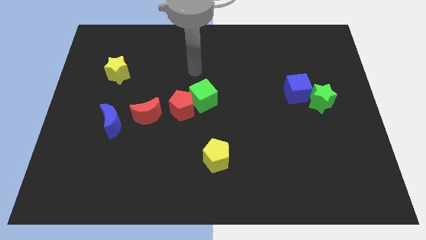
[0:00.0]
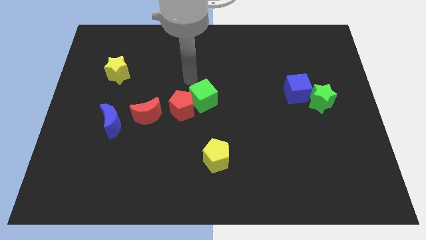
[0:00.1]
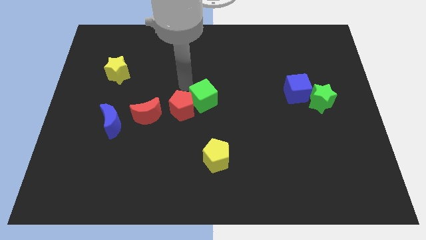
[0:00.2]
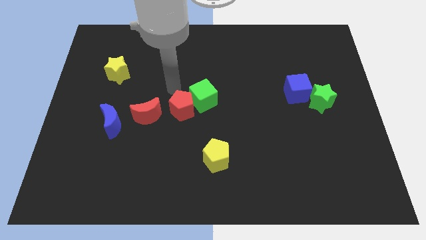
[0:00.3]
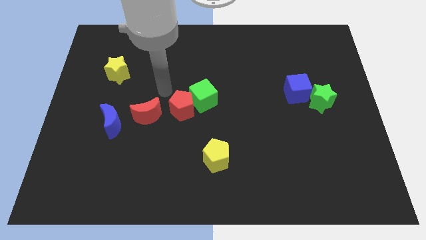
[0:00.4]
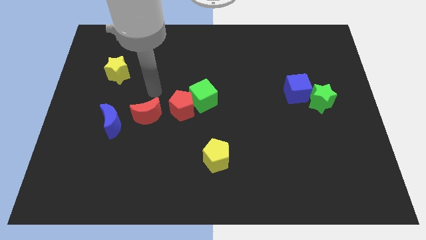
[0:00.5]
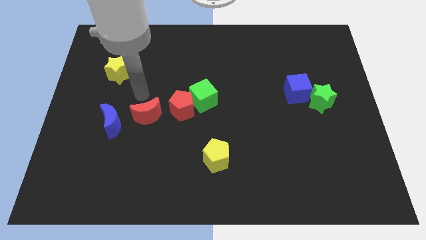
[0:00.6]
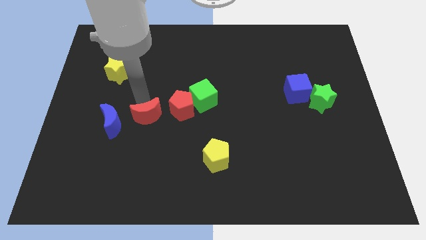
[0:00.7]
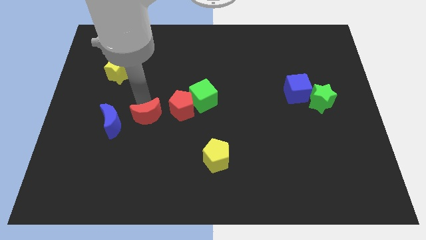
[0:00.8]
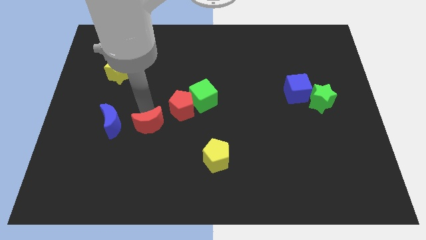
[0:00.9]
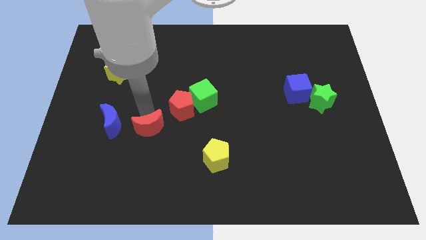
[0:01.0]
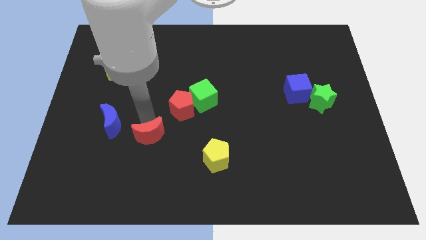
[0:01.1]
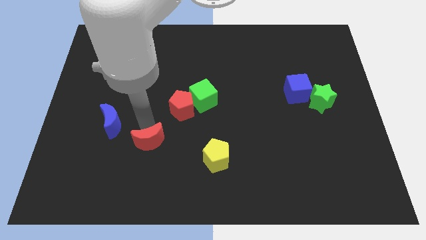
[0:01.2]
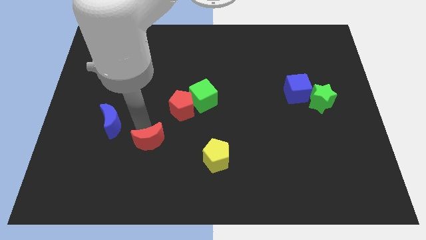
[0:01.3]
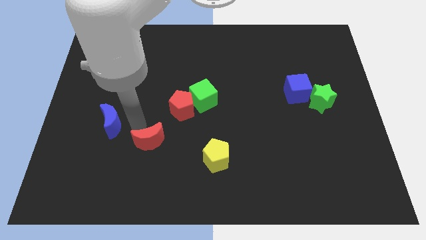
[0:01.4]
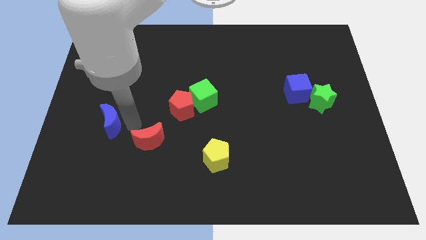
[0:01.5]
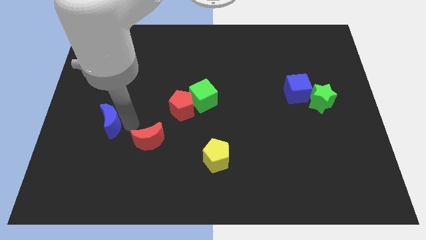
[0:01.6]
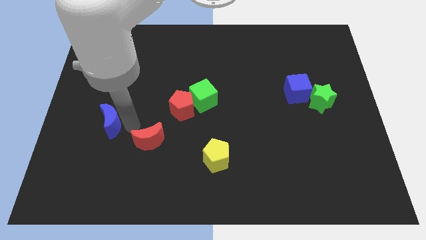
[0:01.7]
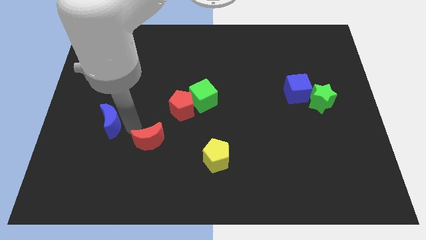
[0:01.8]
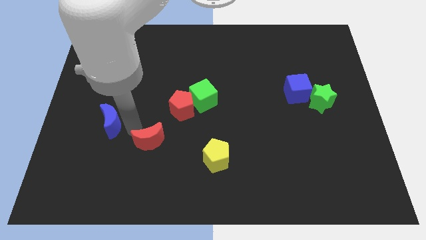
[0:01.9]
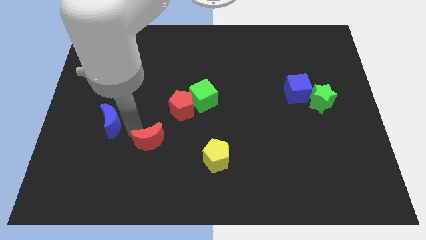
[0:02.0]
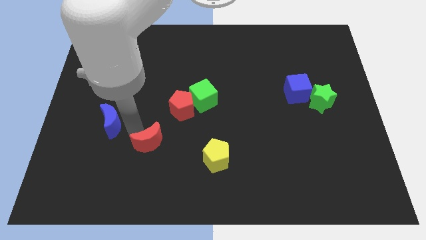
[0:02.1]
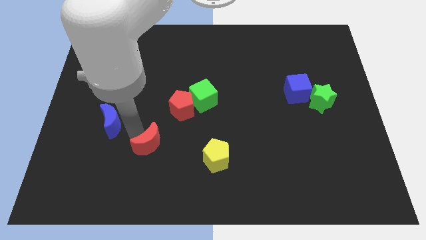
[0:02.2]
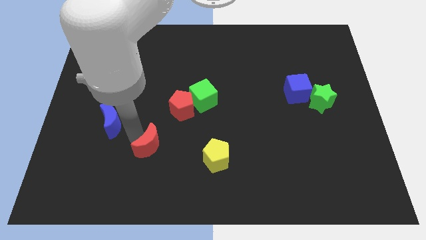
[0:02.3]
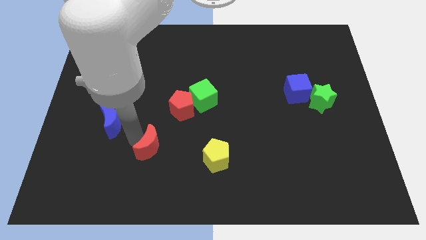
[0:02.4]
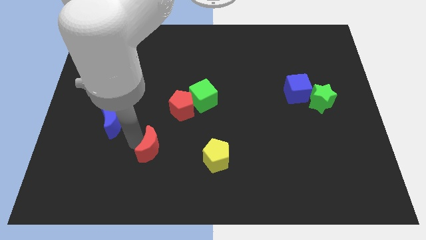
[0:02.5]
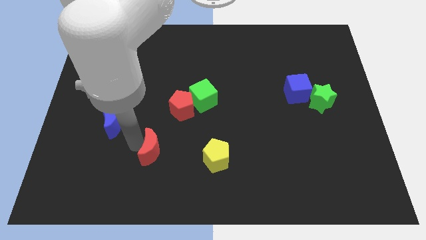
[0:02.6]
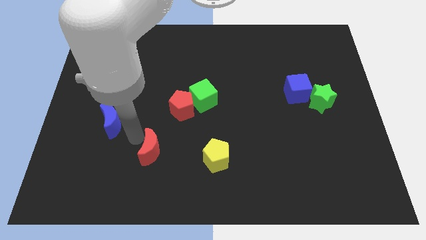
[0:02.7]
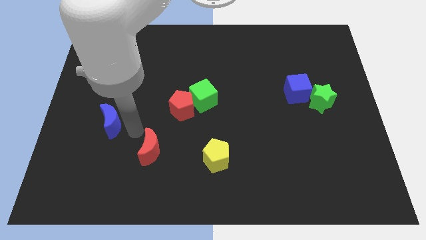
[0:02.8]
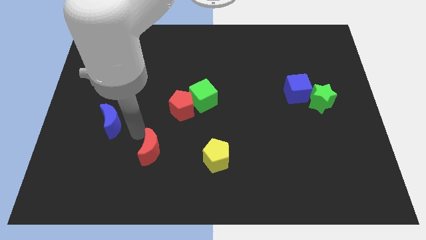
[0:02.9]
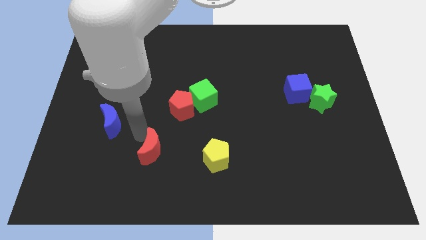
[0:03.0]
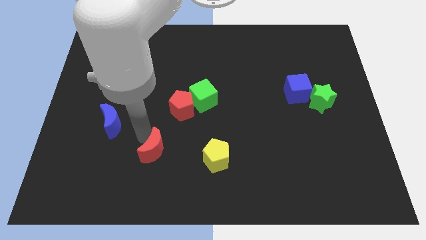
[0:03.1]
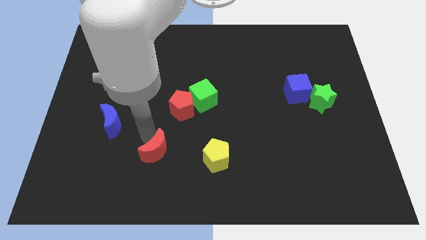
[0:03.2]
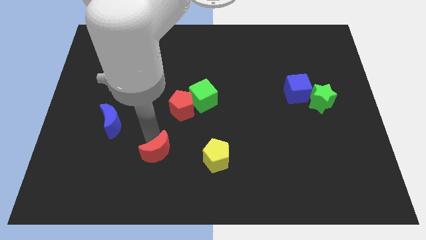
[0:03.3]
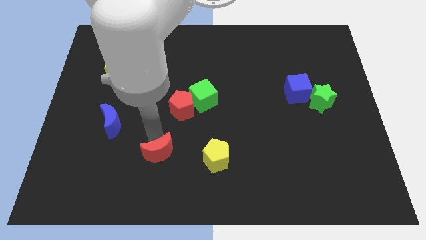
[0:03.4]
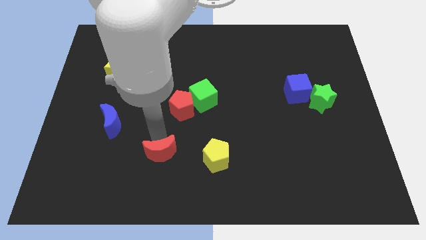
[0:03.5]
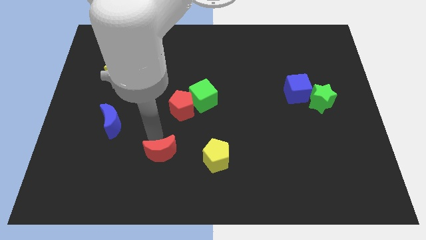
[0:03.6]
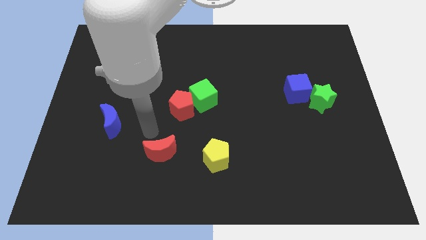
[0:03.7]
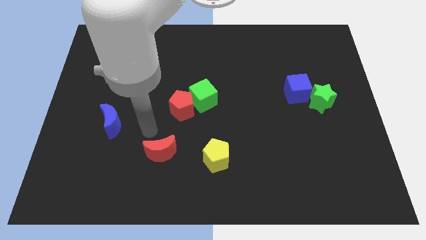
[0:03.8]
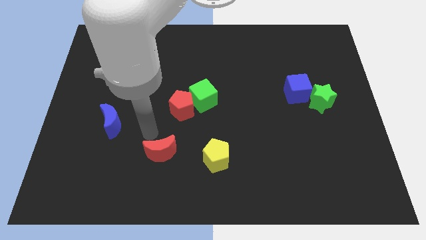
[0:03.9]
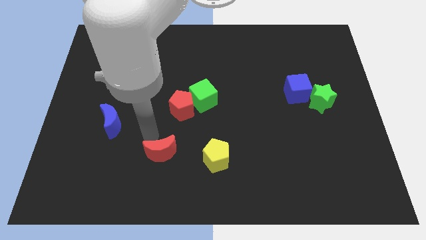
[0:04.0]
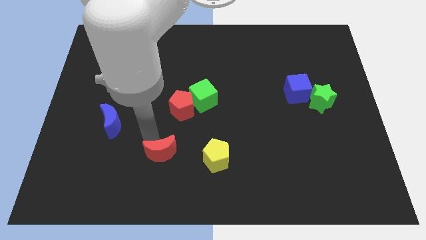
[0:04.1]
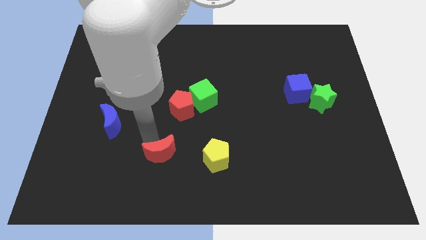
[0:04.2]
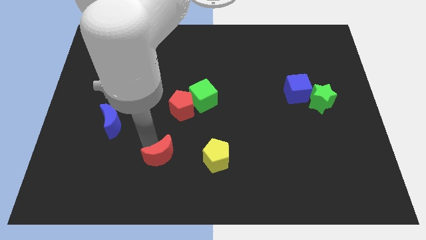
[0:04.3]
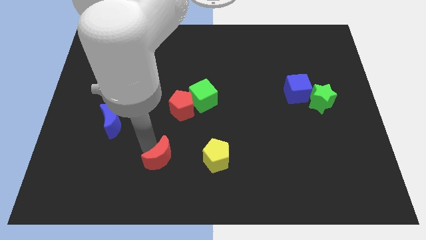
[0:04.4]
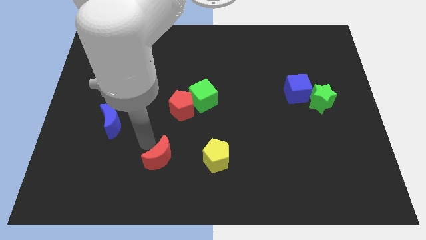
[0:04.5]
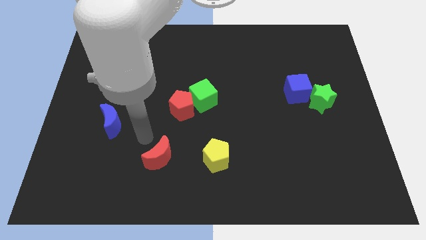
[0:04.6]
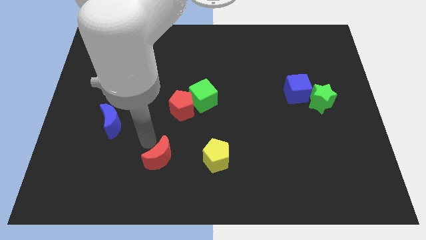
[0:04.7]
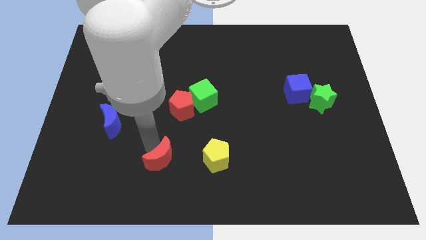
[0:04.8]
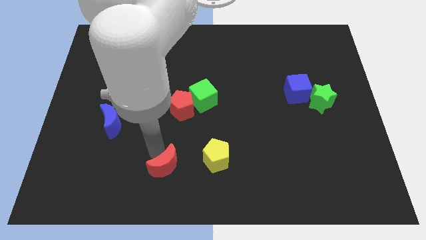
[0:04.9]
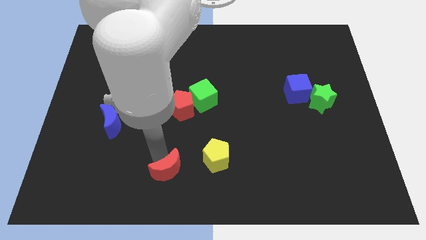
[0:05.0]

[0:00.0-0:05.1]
slide the red moon to the bottom side

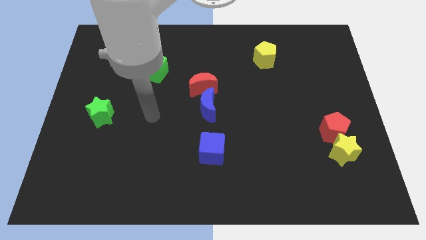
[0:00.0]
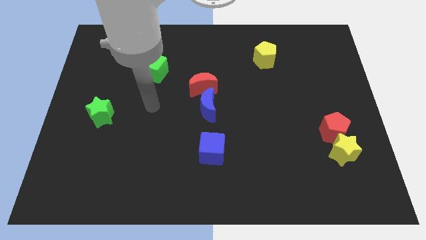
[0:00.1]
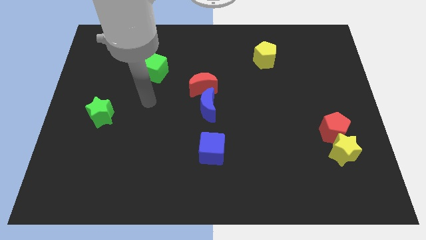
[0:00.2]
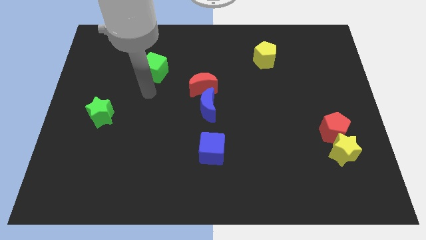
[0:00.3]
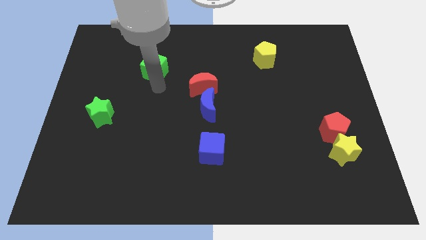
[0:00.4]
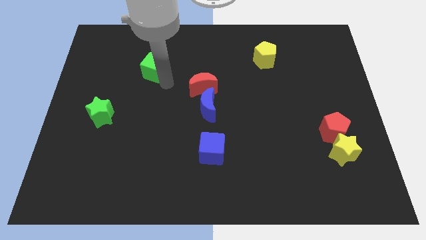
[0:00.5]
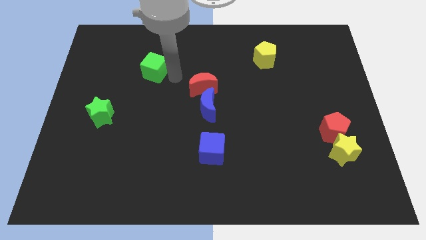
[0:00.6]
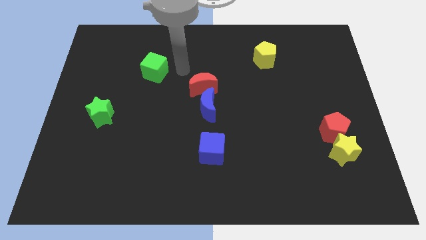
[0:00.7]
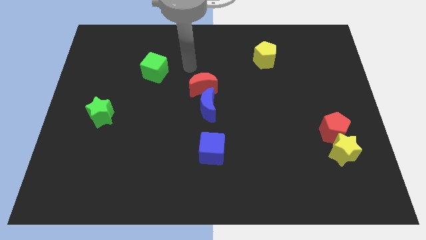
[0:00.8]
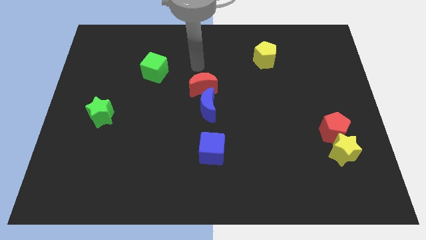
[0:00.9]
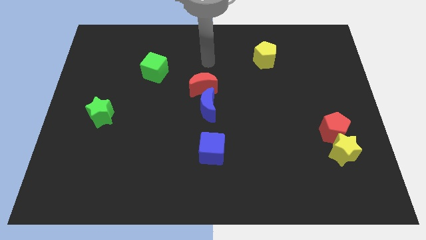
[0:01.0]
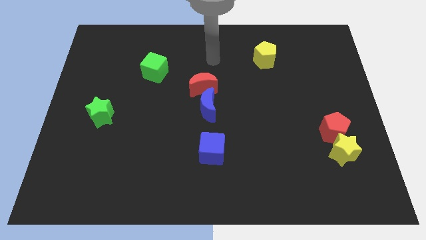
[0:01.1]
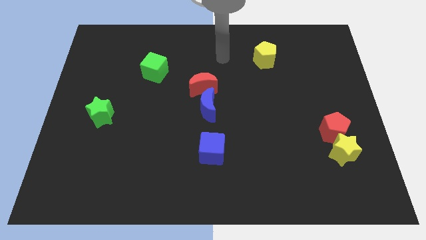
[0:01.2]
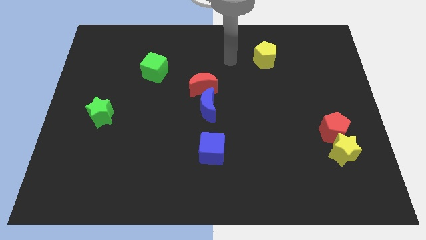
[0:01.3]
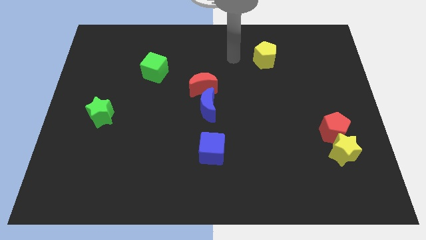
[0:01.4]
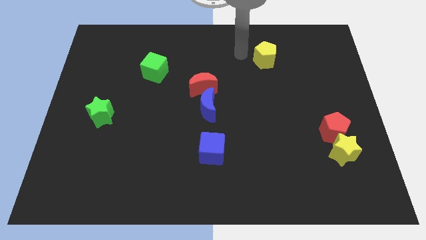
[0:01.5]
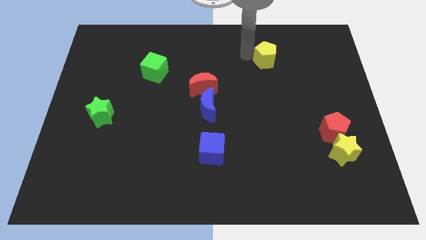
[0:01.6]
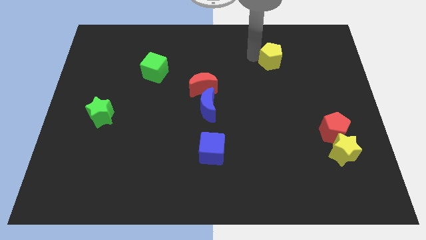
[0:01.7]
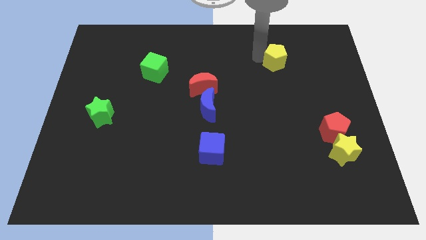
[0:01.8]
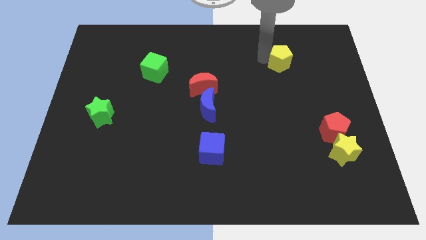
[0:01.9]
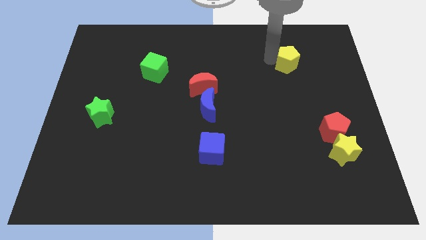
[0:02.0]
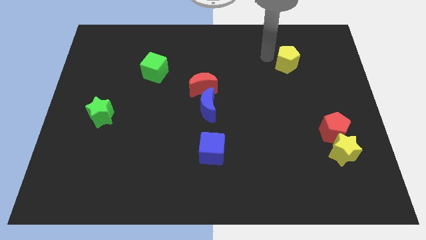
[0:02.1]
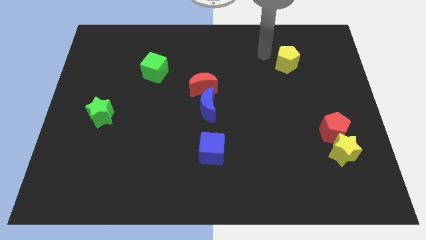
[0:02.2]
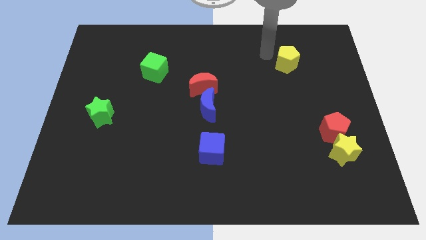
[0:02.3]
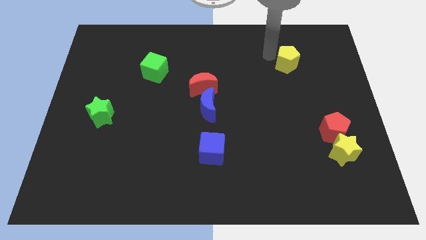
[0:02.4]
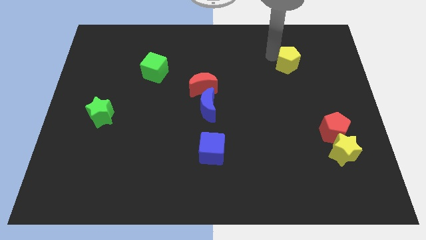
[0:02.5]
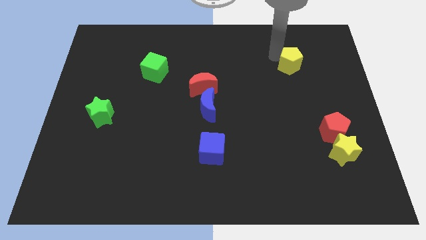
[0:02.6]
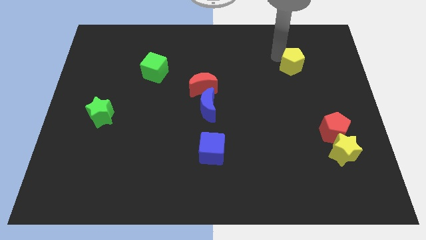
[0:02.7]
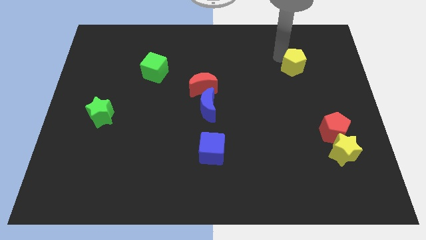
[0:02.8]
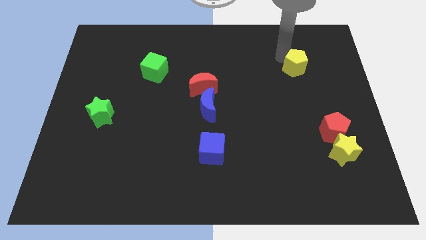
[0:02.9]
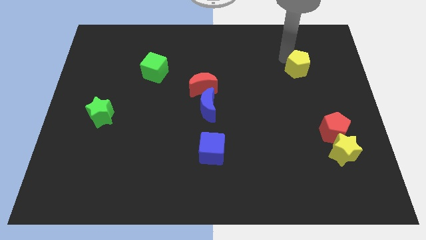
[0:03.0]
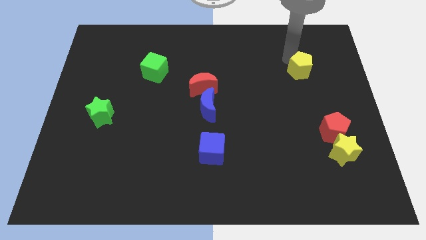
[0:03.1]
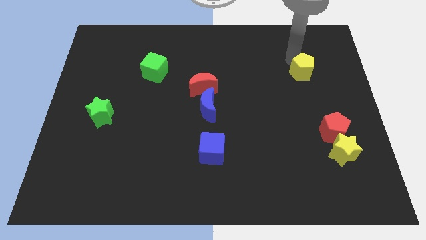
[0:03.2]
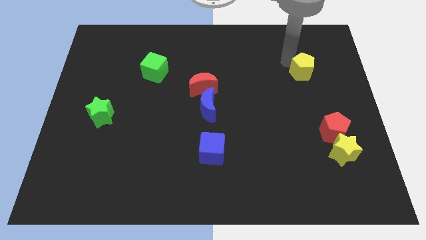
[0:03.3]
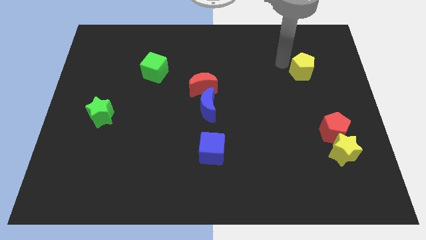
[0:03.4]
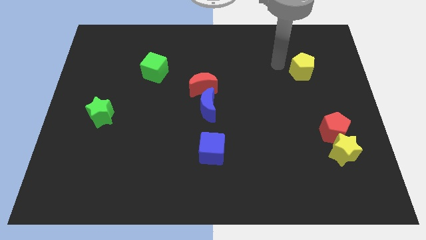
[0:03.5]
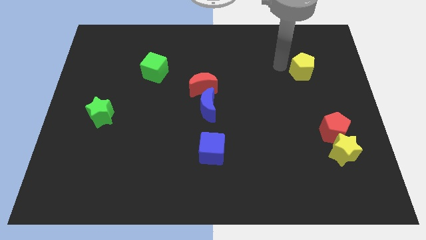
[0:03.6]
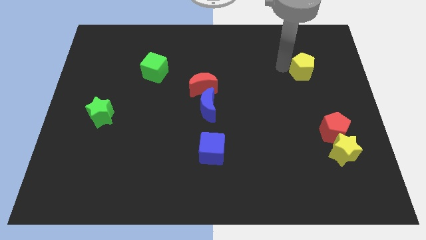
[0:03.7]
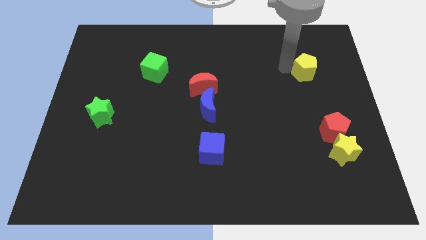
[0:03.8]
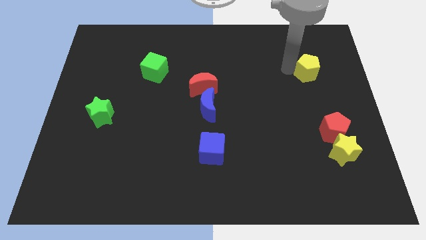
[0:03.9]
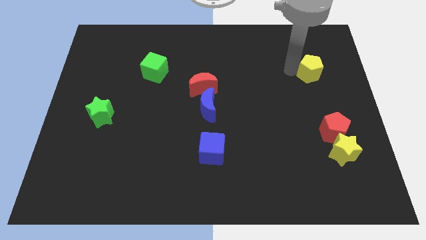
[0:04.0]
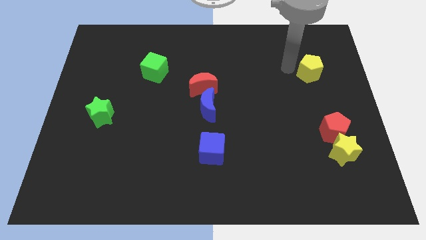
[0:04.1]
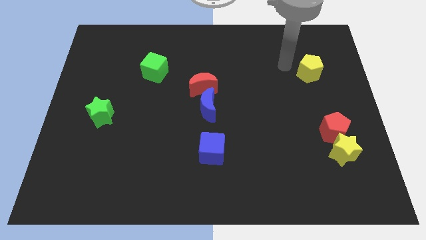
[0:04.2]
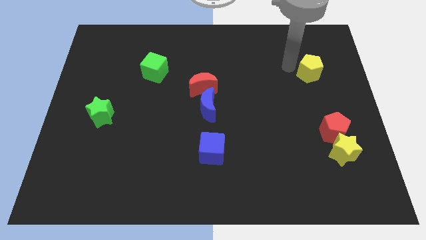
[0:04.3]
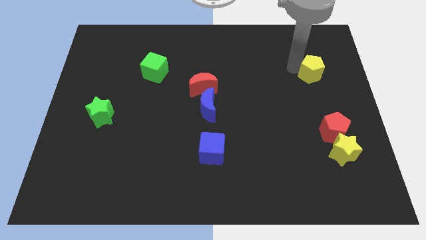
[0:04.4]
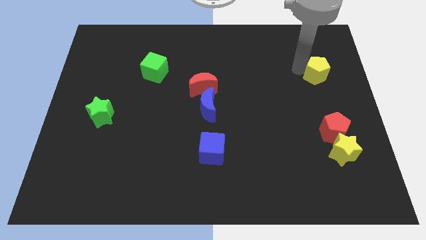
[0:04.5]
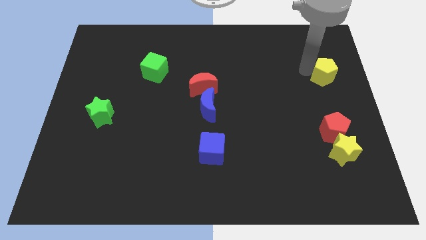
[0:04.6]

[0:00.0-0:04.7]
push the yellow pentagon to the right side of the board
